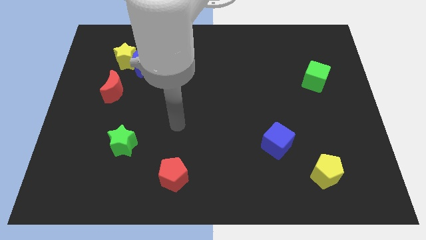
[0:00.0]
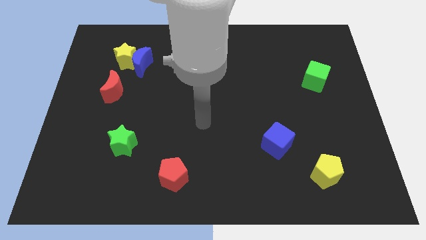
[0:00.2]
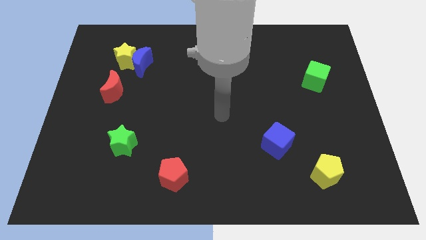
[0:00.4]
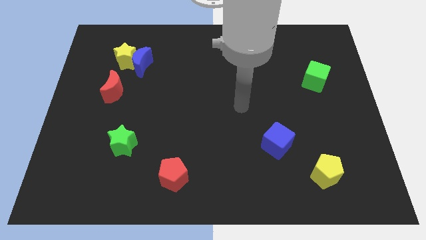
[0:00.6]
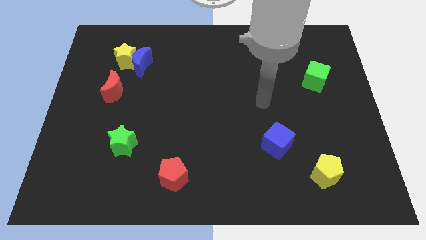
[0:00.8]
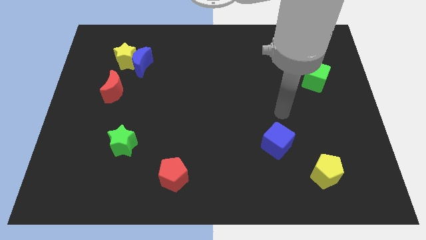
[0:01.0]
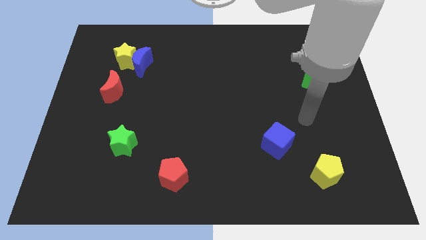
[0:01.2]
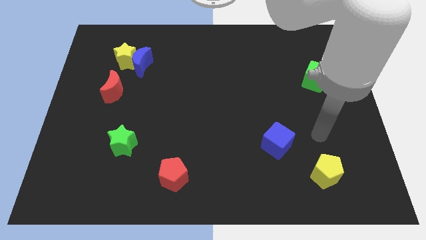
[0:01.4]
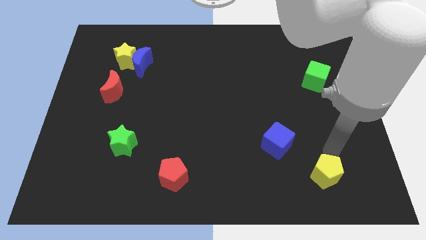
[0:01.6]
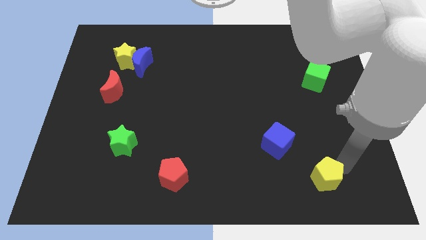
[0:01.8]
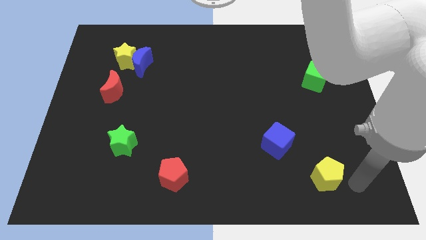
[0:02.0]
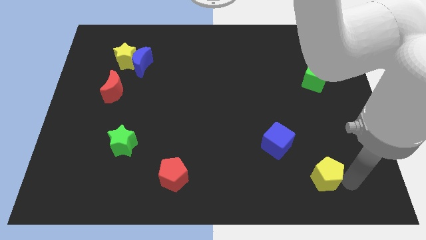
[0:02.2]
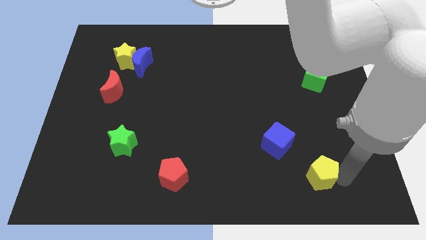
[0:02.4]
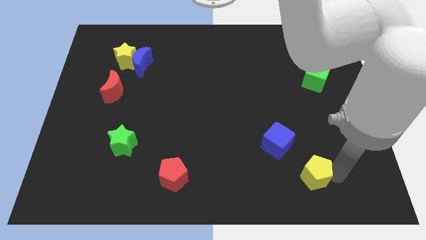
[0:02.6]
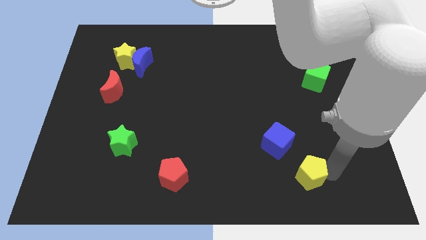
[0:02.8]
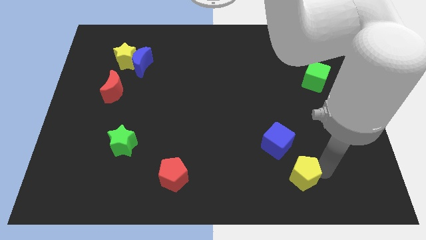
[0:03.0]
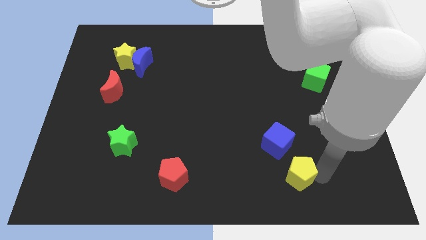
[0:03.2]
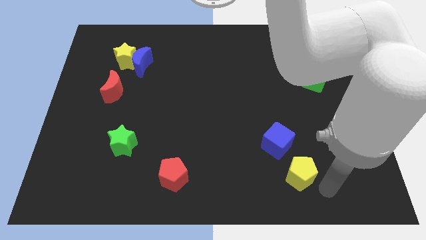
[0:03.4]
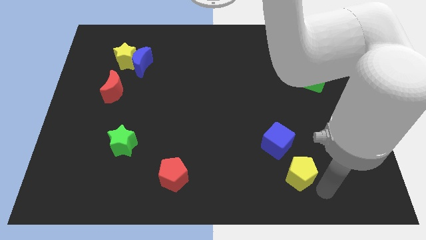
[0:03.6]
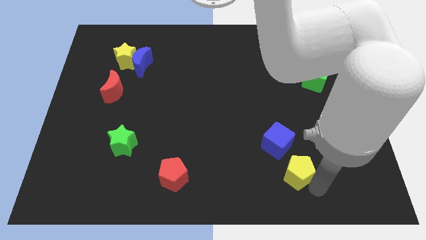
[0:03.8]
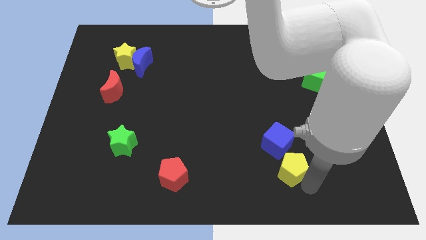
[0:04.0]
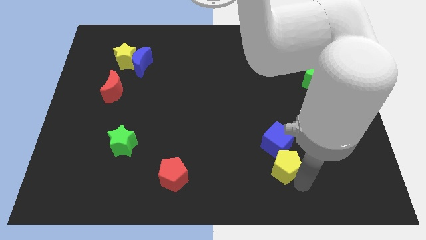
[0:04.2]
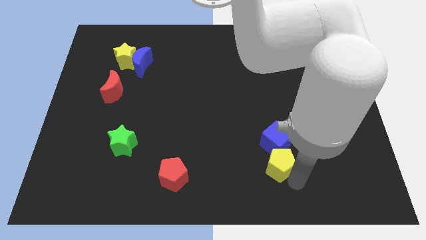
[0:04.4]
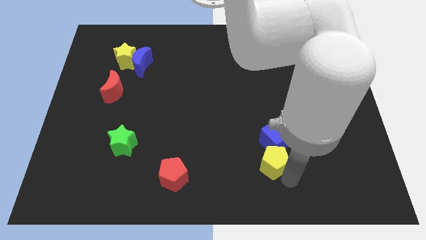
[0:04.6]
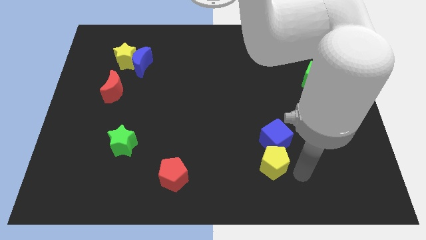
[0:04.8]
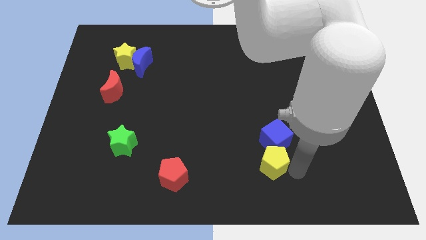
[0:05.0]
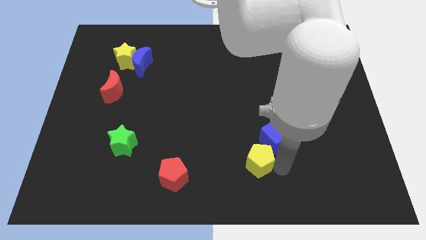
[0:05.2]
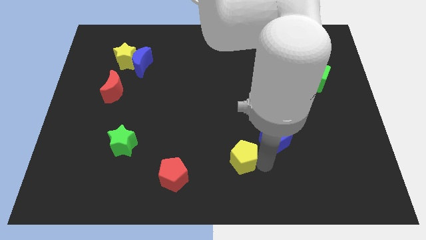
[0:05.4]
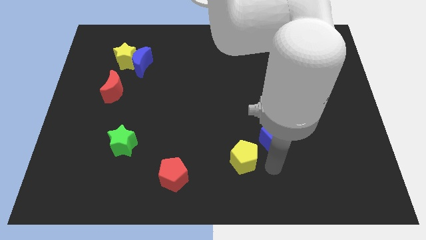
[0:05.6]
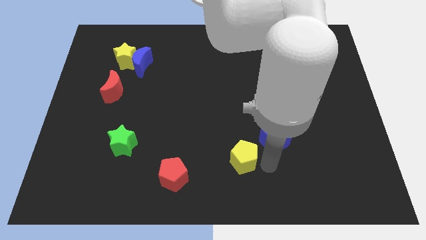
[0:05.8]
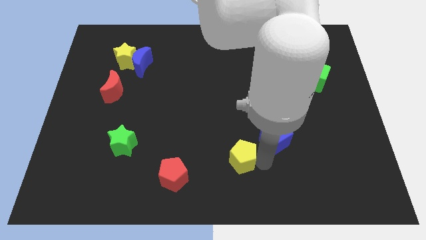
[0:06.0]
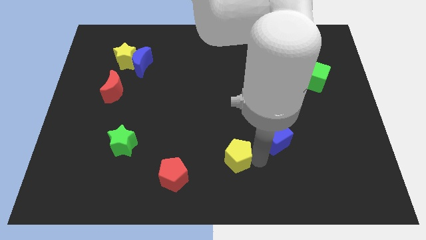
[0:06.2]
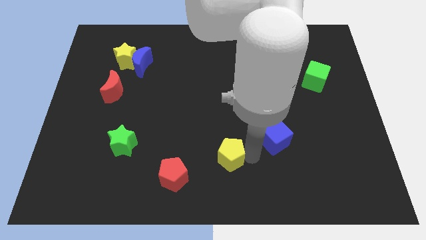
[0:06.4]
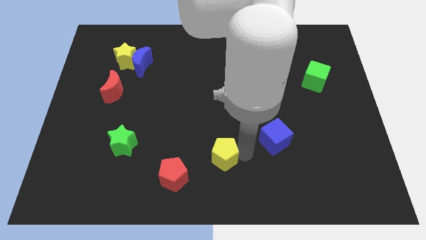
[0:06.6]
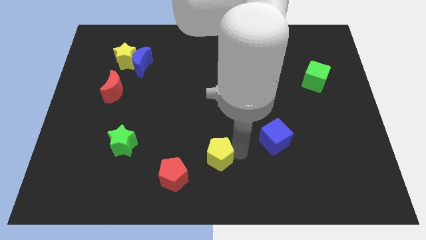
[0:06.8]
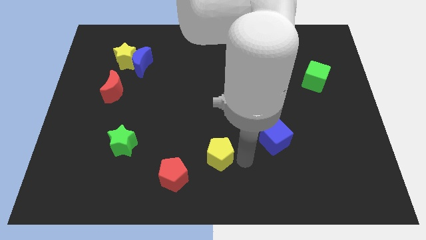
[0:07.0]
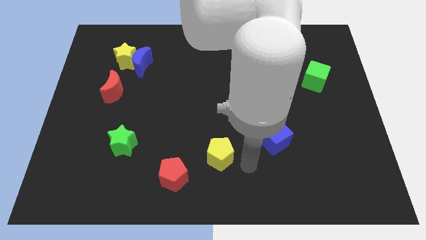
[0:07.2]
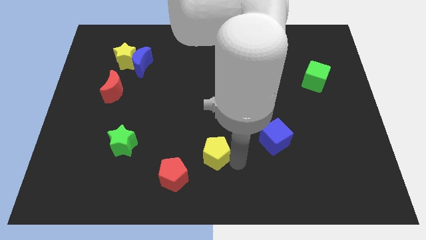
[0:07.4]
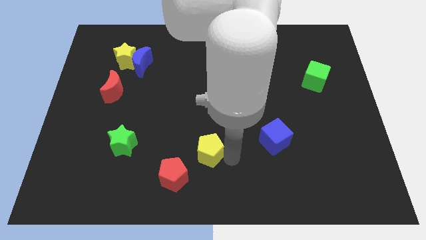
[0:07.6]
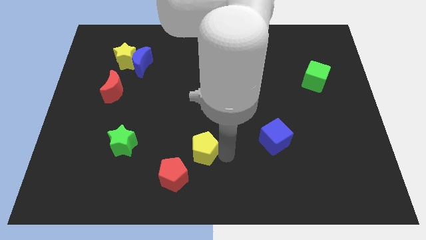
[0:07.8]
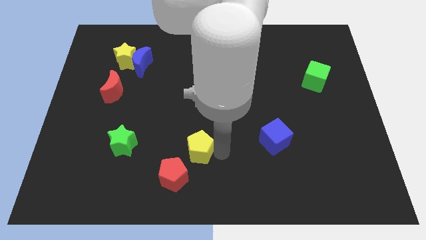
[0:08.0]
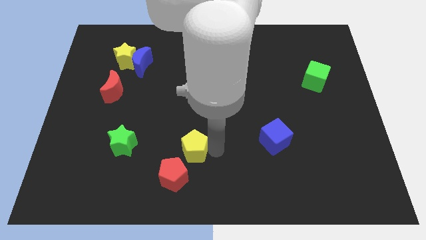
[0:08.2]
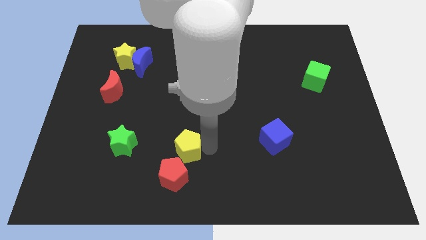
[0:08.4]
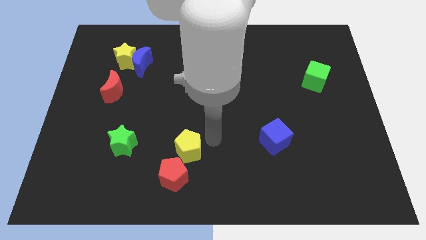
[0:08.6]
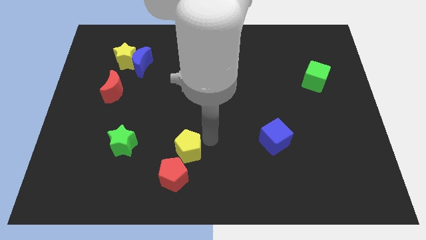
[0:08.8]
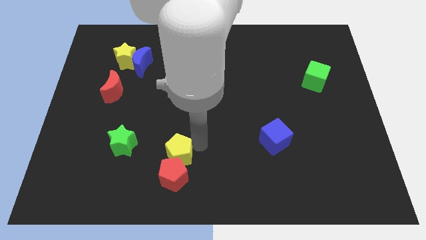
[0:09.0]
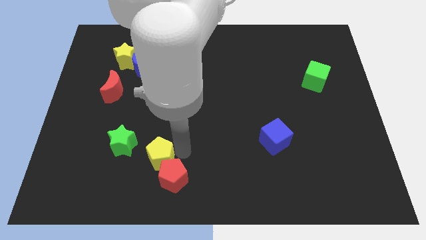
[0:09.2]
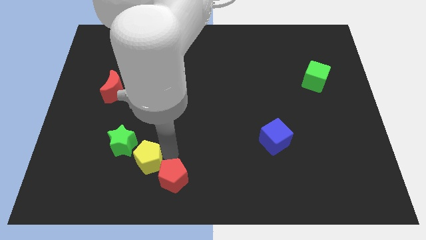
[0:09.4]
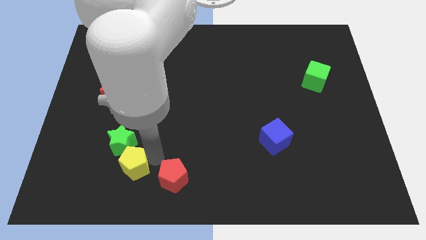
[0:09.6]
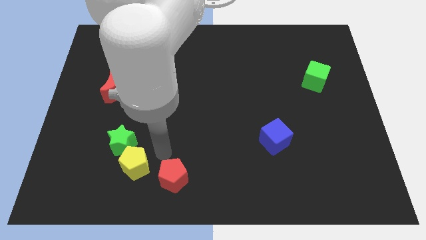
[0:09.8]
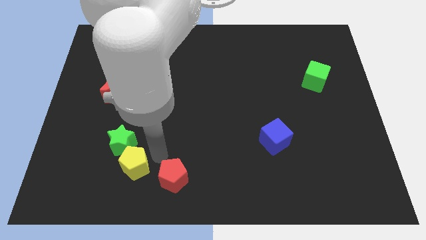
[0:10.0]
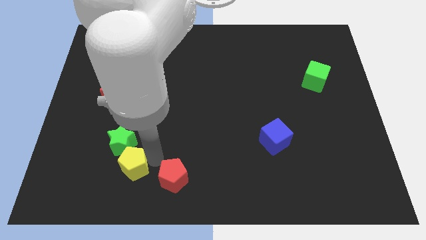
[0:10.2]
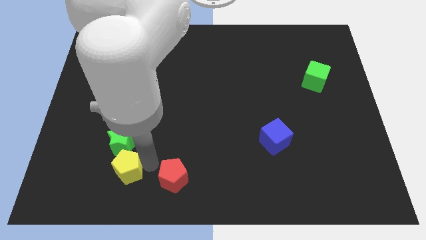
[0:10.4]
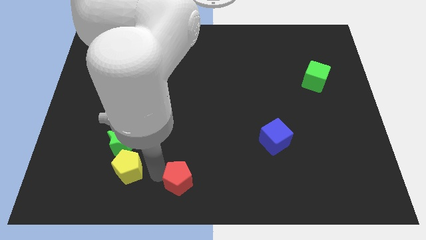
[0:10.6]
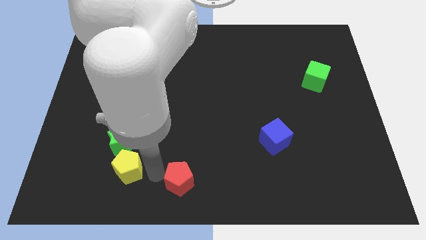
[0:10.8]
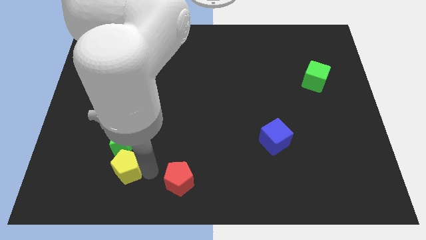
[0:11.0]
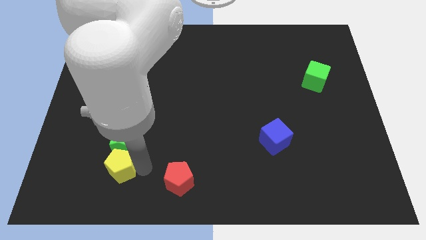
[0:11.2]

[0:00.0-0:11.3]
slide the yellow pentagon to the bottom left of the green star

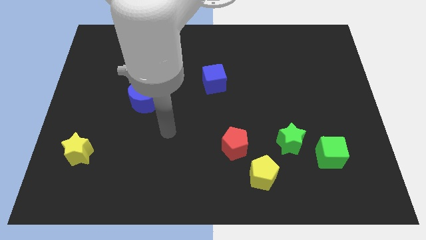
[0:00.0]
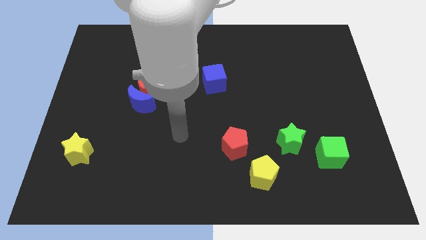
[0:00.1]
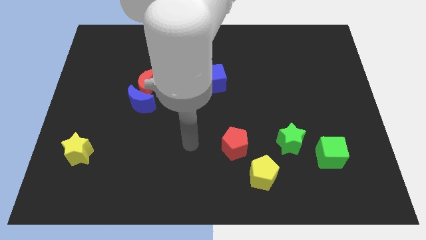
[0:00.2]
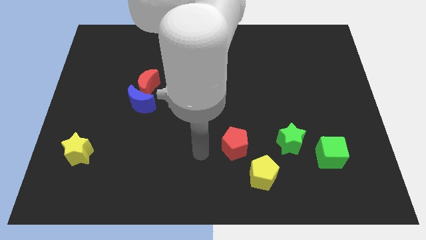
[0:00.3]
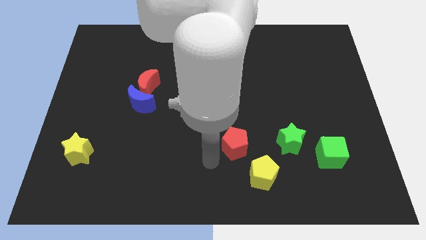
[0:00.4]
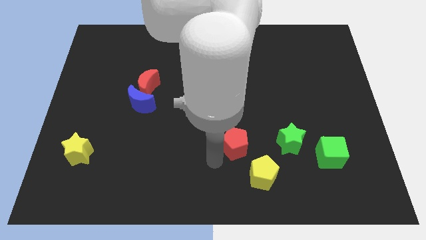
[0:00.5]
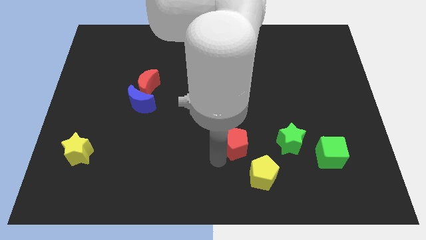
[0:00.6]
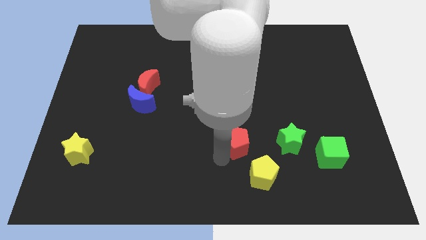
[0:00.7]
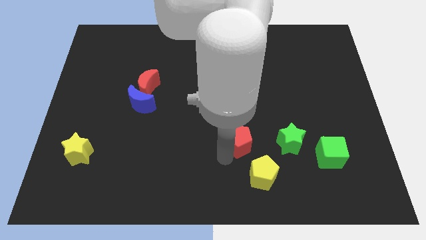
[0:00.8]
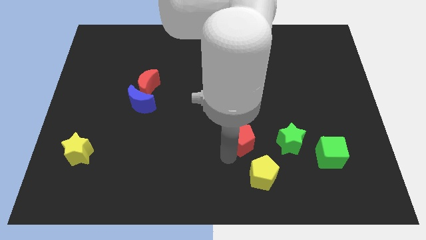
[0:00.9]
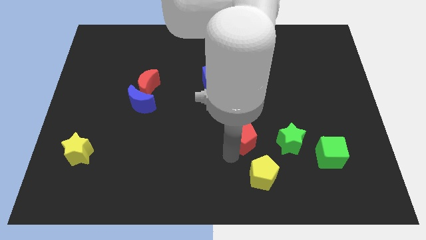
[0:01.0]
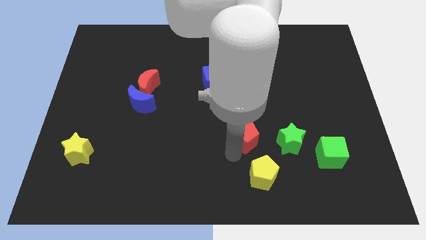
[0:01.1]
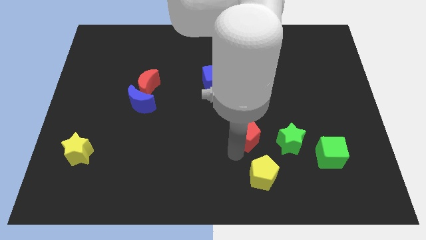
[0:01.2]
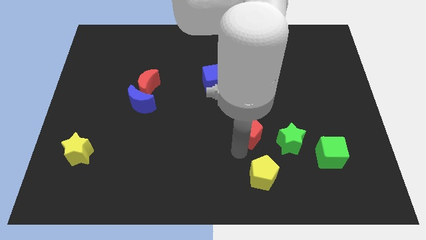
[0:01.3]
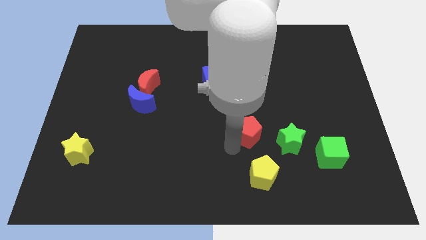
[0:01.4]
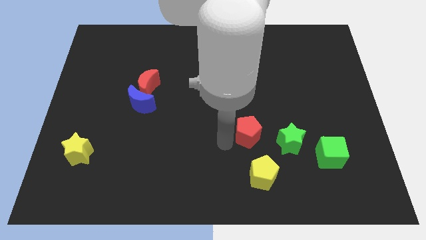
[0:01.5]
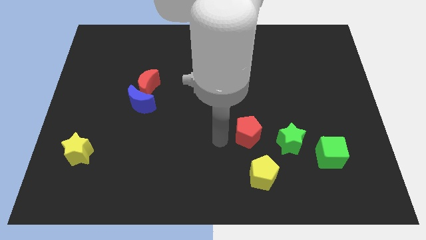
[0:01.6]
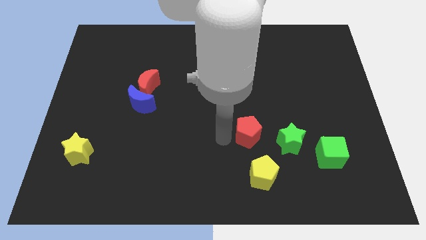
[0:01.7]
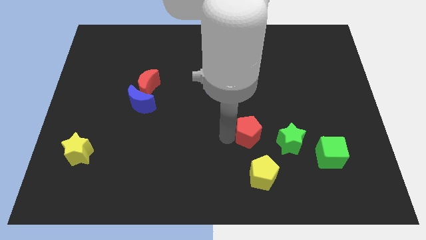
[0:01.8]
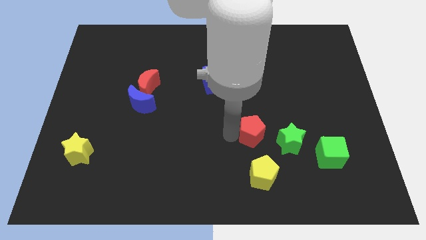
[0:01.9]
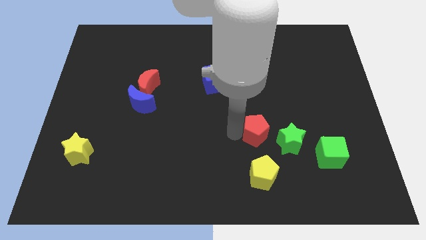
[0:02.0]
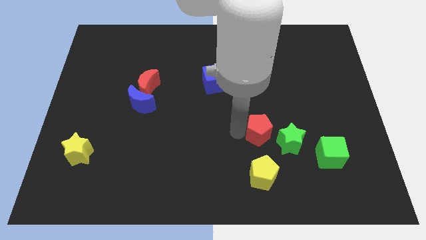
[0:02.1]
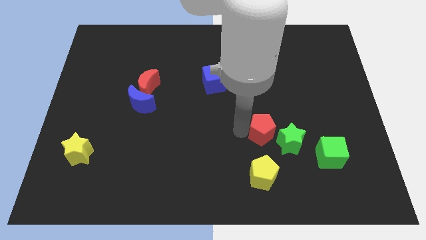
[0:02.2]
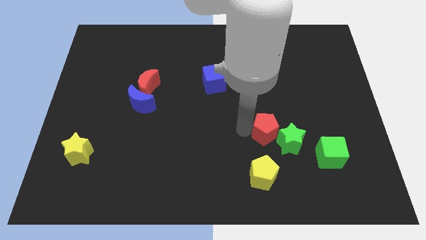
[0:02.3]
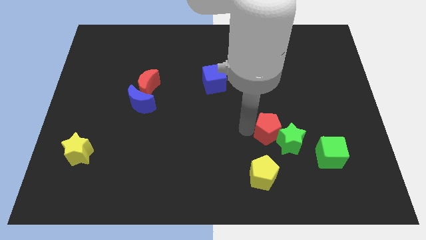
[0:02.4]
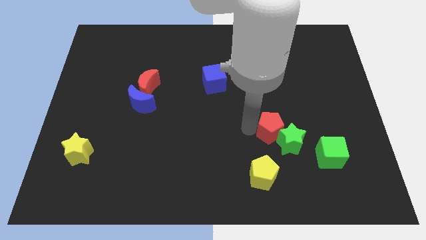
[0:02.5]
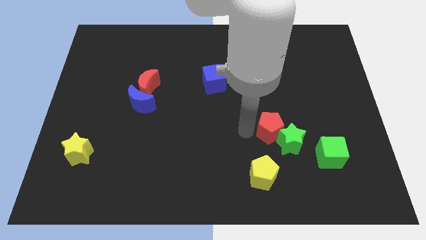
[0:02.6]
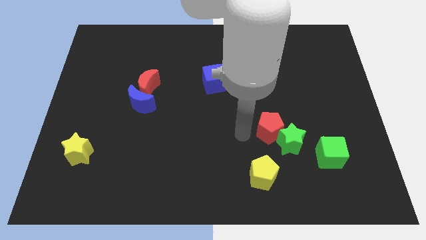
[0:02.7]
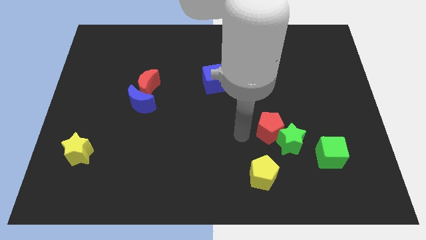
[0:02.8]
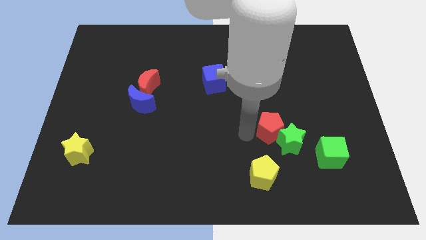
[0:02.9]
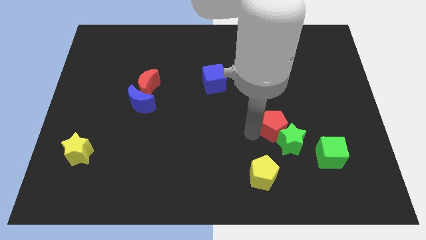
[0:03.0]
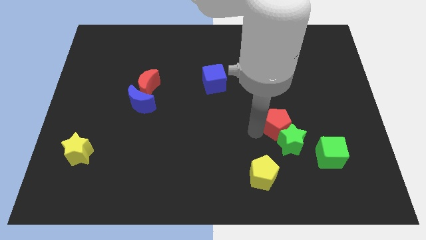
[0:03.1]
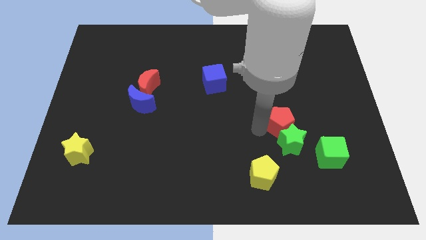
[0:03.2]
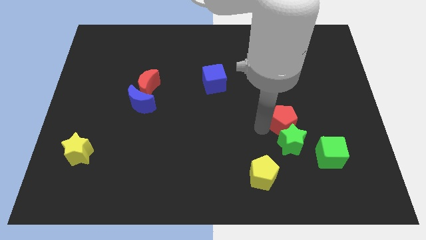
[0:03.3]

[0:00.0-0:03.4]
move the red pentagon to the top right side of the green star
